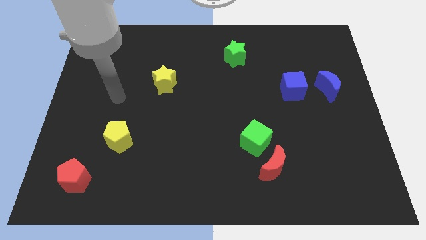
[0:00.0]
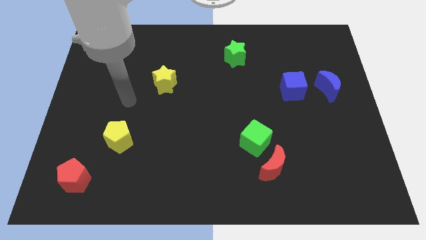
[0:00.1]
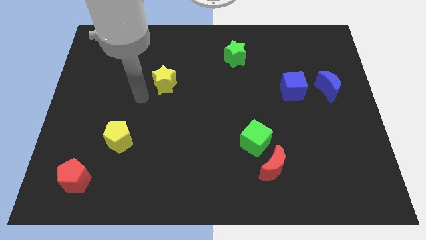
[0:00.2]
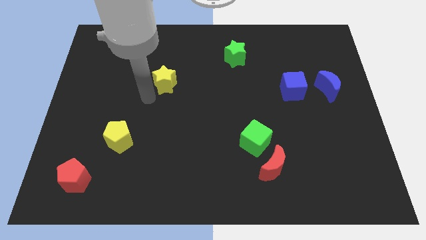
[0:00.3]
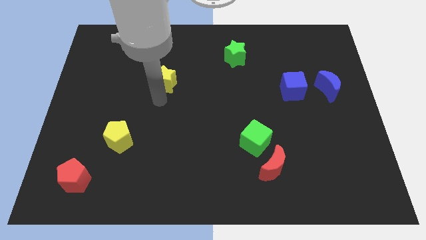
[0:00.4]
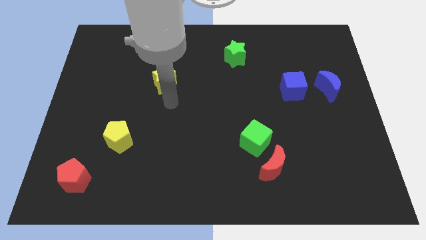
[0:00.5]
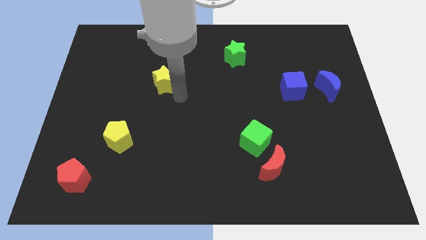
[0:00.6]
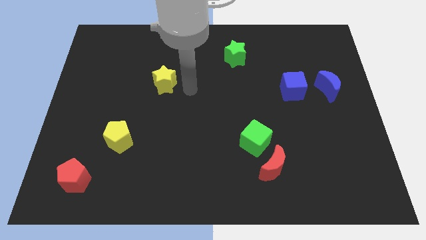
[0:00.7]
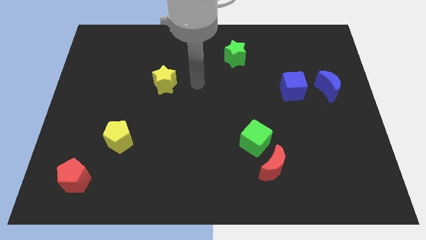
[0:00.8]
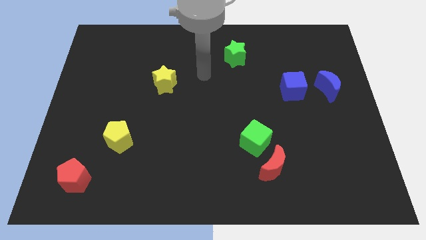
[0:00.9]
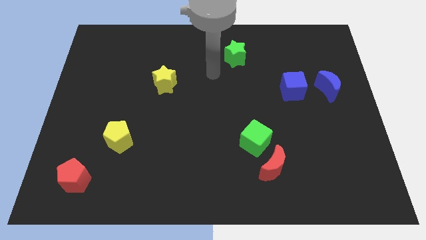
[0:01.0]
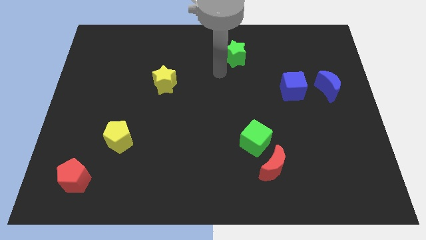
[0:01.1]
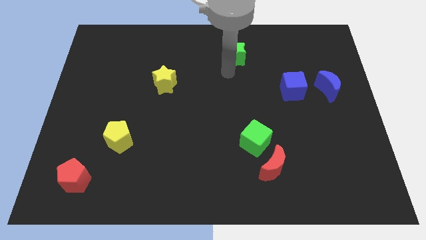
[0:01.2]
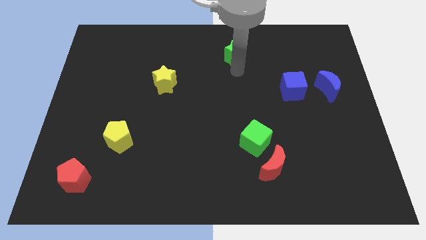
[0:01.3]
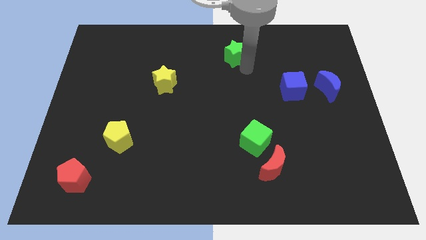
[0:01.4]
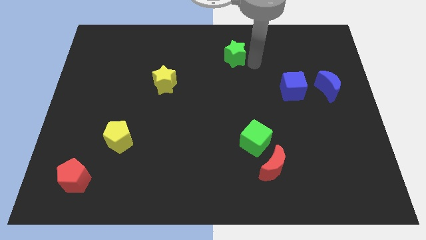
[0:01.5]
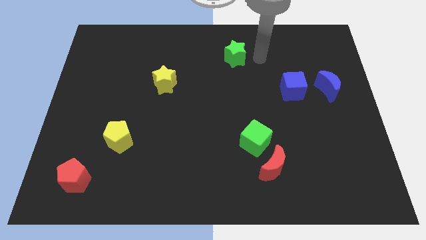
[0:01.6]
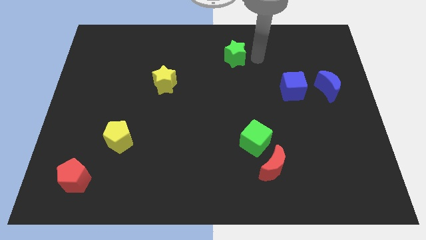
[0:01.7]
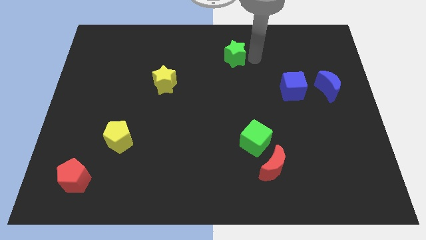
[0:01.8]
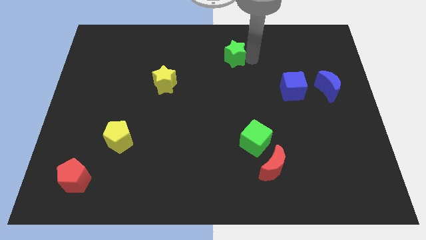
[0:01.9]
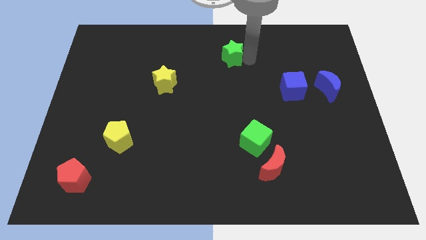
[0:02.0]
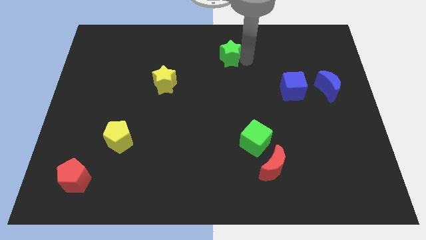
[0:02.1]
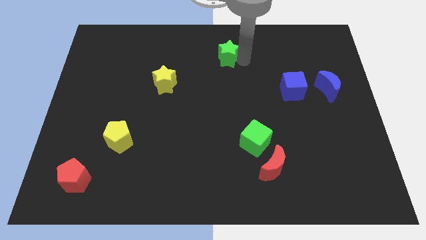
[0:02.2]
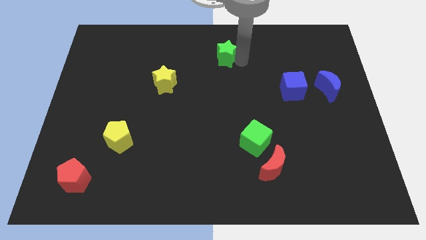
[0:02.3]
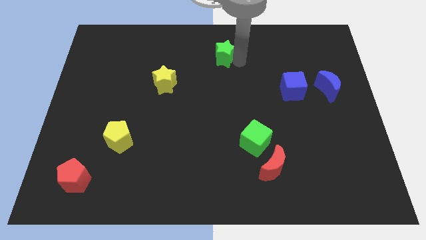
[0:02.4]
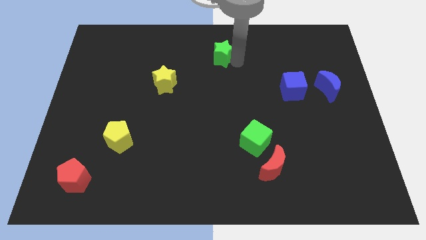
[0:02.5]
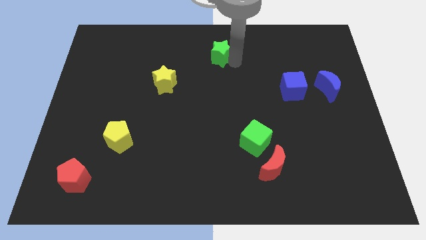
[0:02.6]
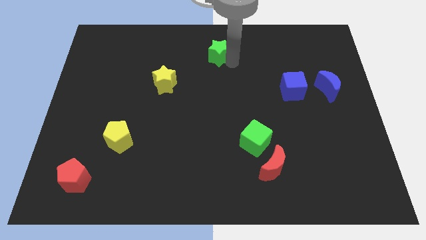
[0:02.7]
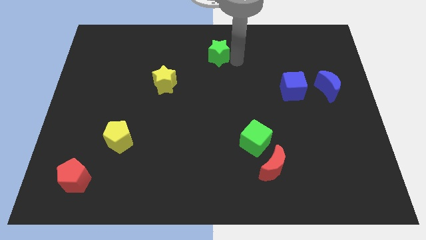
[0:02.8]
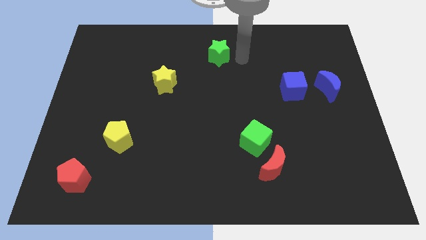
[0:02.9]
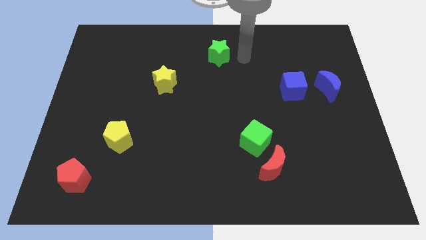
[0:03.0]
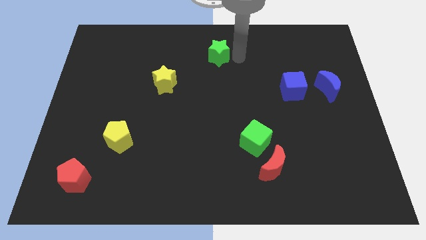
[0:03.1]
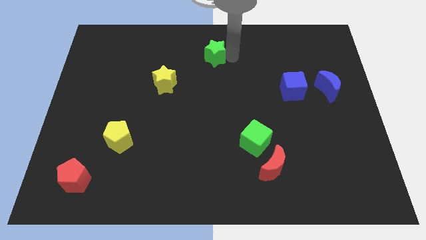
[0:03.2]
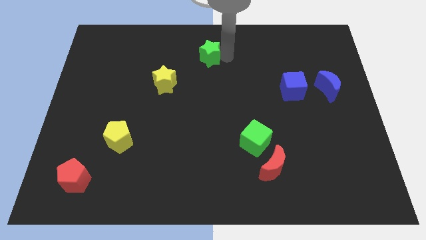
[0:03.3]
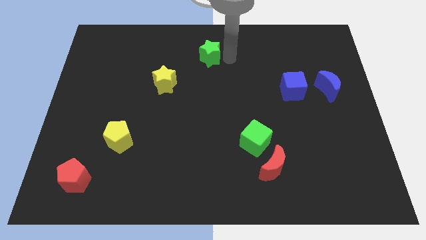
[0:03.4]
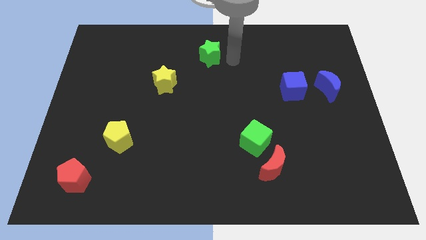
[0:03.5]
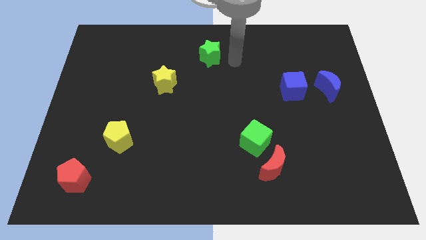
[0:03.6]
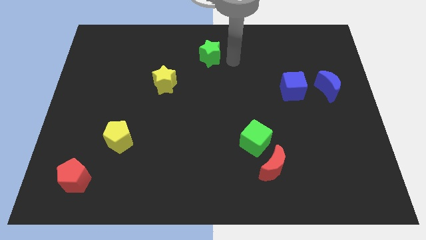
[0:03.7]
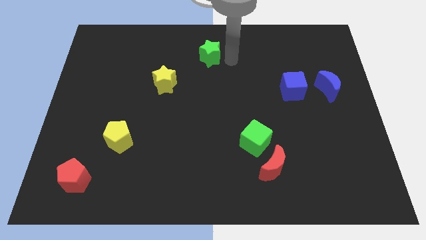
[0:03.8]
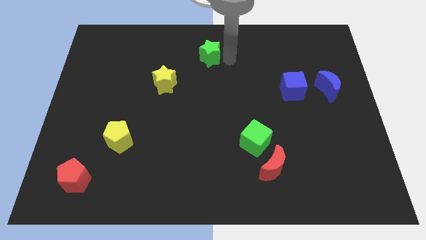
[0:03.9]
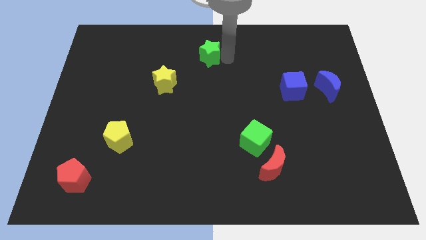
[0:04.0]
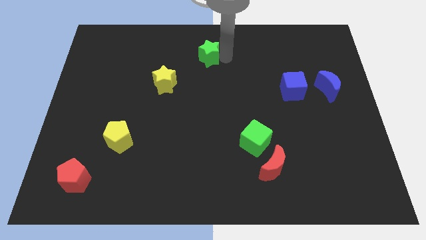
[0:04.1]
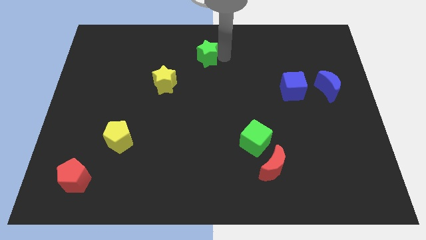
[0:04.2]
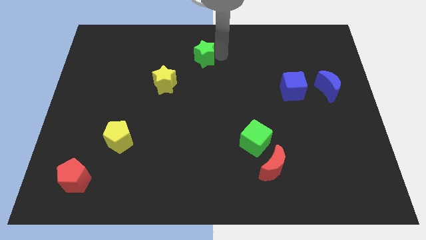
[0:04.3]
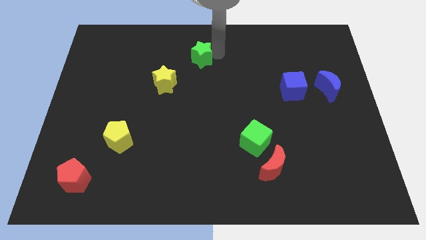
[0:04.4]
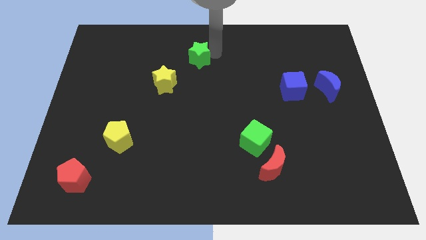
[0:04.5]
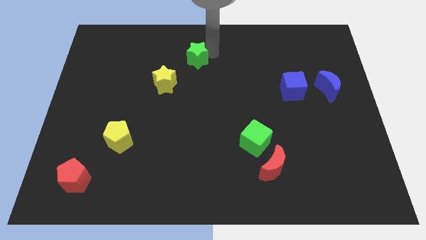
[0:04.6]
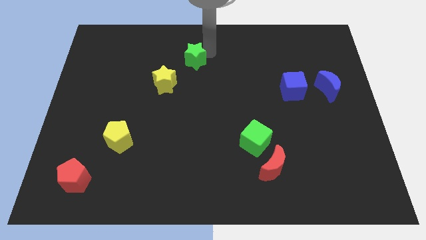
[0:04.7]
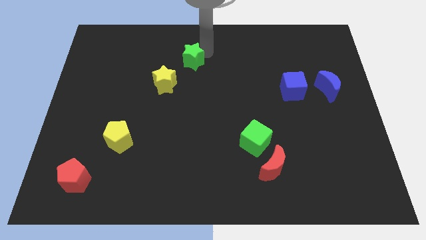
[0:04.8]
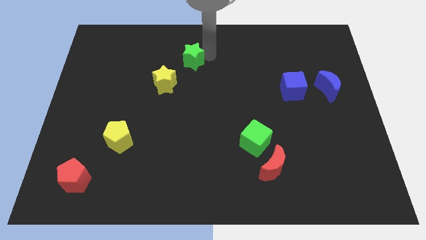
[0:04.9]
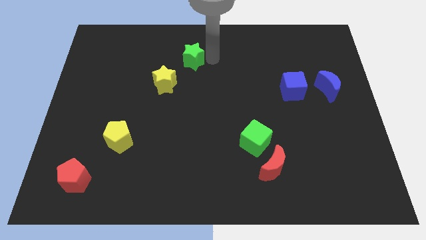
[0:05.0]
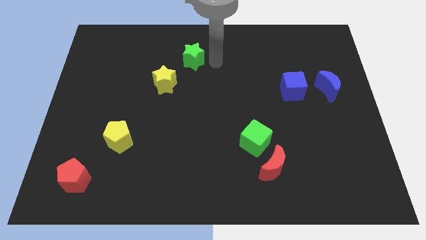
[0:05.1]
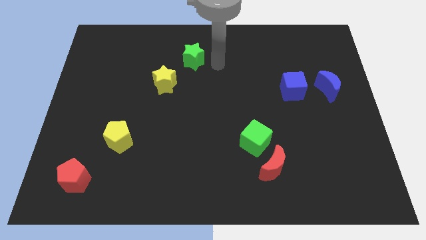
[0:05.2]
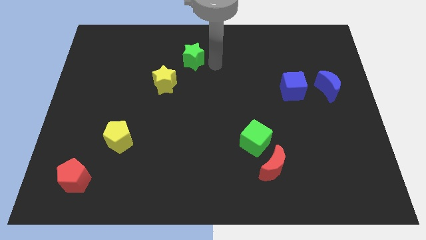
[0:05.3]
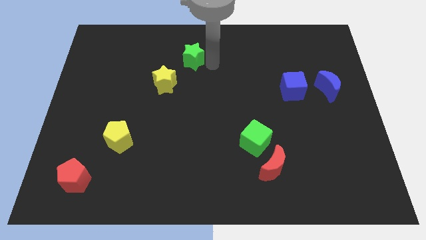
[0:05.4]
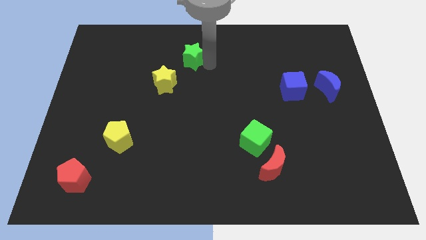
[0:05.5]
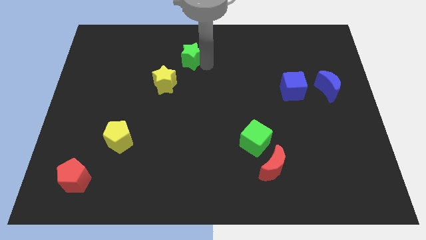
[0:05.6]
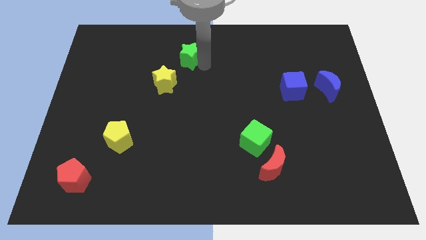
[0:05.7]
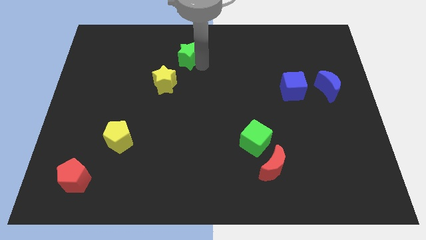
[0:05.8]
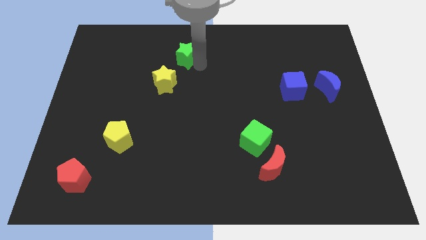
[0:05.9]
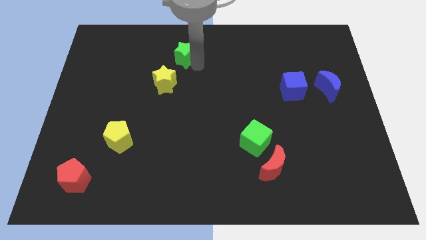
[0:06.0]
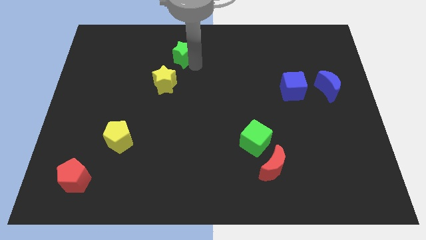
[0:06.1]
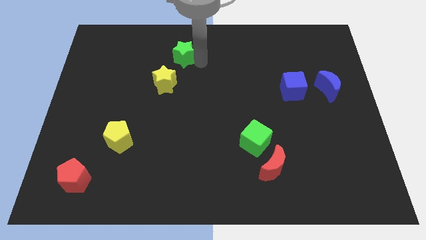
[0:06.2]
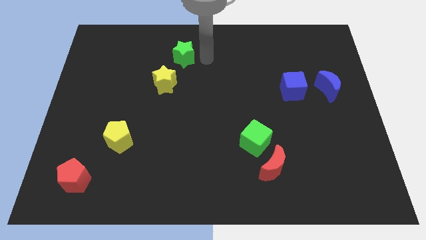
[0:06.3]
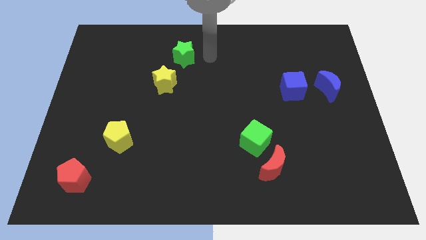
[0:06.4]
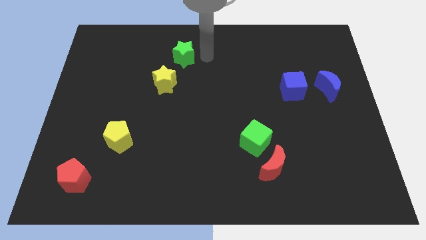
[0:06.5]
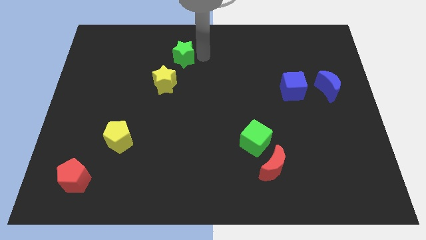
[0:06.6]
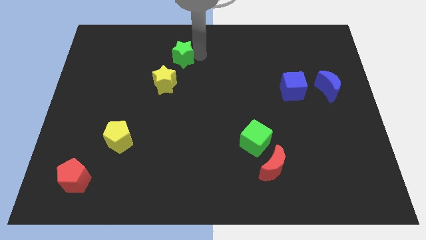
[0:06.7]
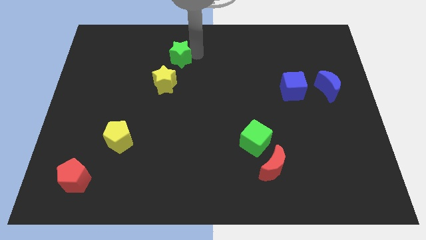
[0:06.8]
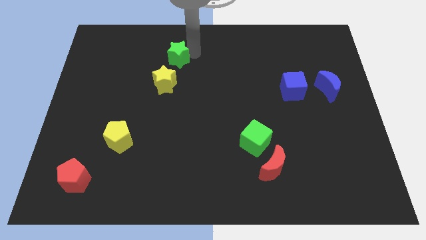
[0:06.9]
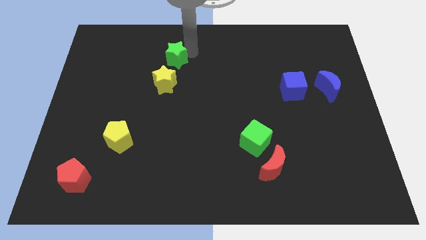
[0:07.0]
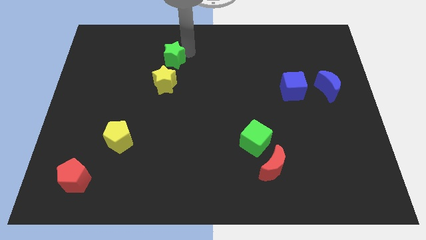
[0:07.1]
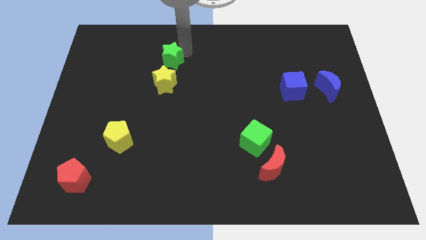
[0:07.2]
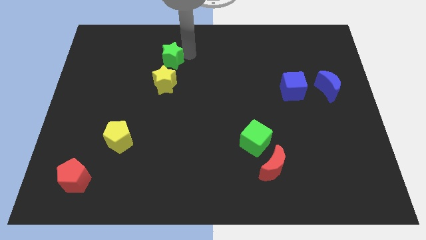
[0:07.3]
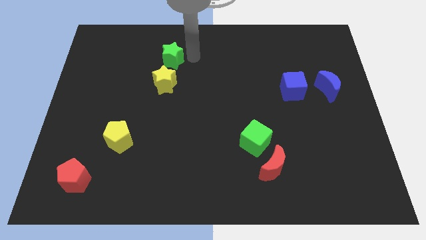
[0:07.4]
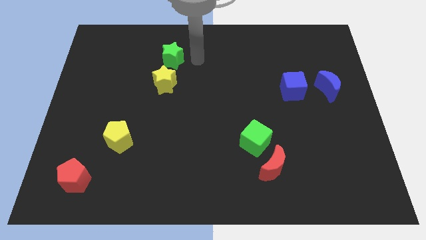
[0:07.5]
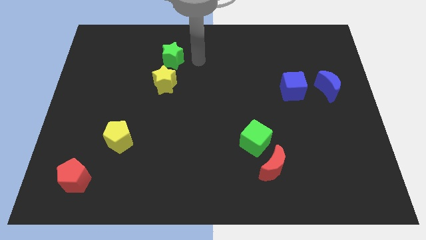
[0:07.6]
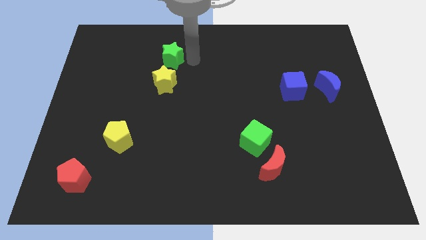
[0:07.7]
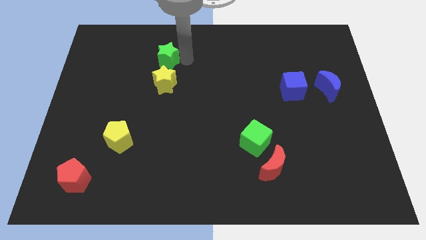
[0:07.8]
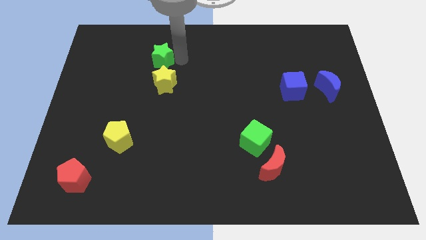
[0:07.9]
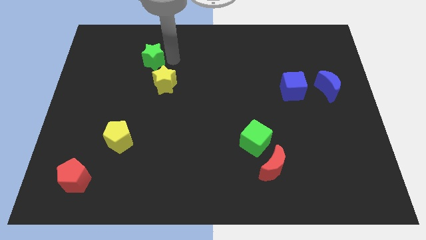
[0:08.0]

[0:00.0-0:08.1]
slide the green star left
